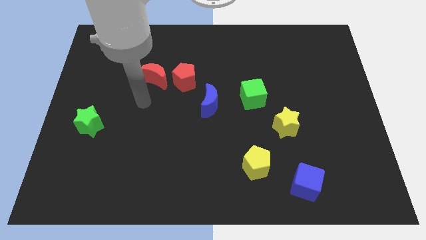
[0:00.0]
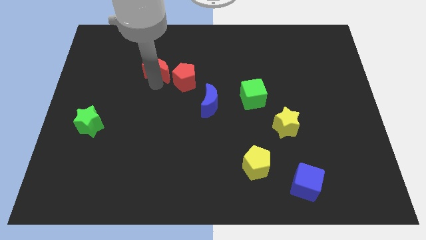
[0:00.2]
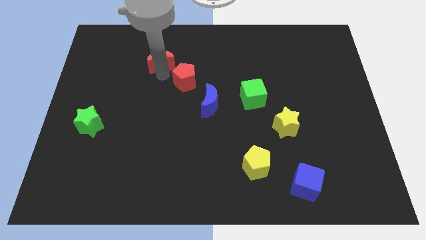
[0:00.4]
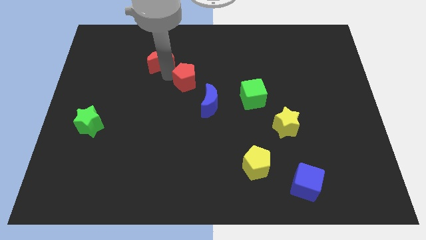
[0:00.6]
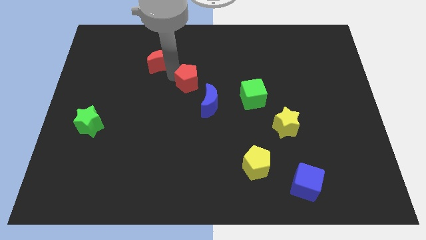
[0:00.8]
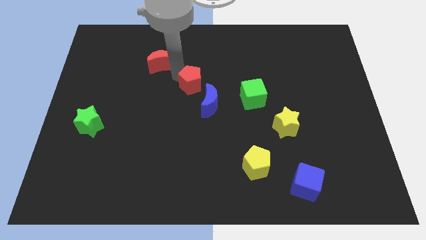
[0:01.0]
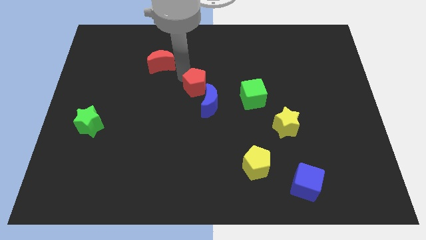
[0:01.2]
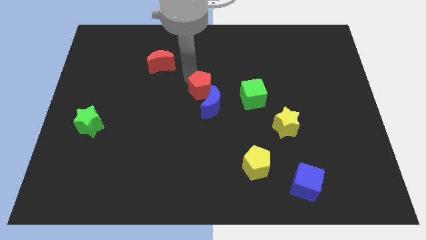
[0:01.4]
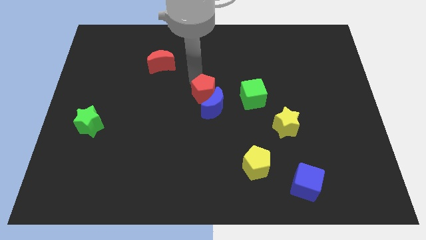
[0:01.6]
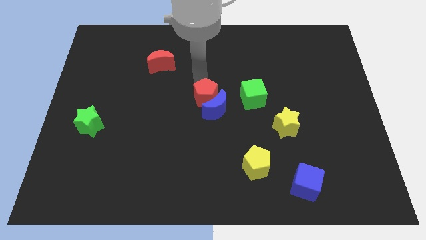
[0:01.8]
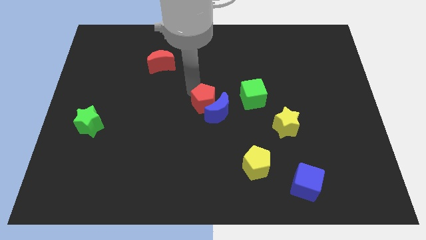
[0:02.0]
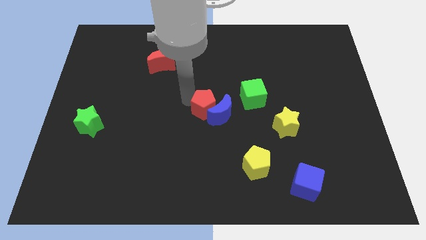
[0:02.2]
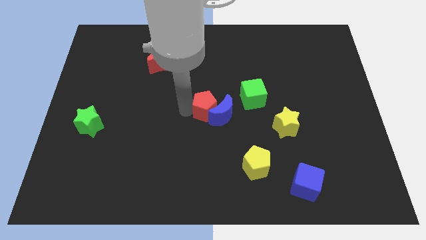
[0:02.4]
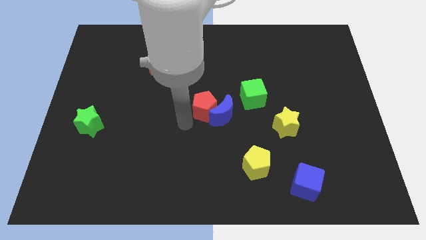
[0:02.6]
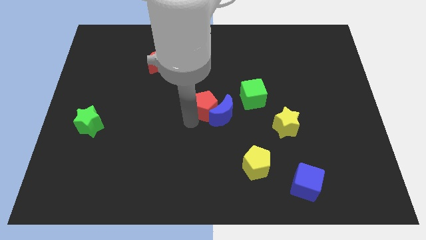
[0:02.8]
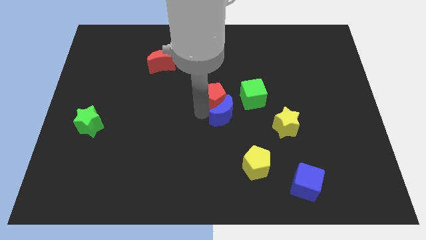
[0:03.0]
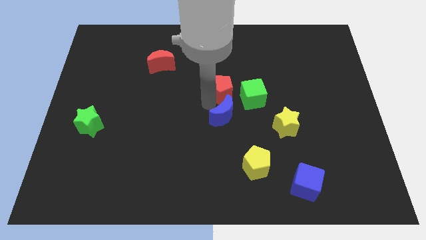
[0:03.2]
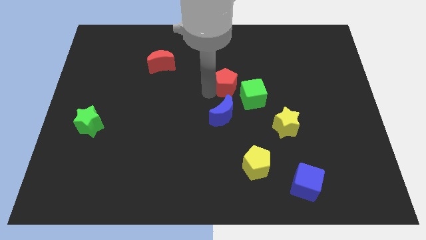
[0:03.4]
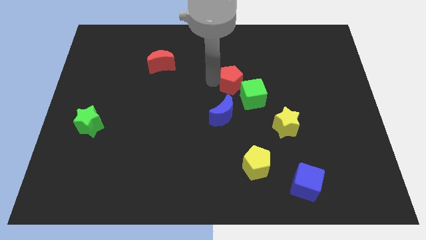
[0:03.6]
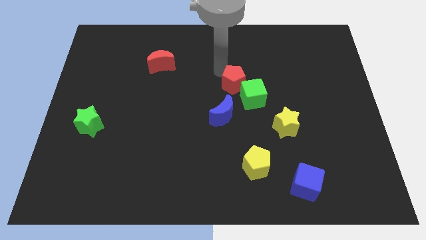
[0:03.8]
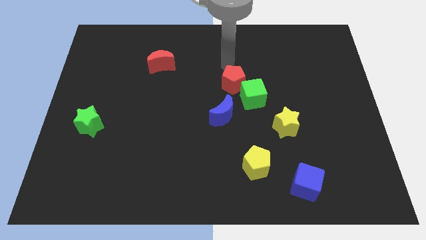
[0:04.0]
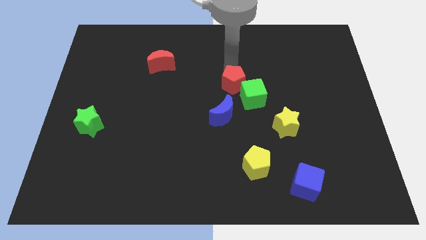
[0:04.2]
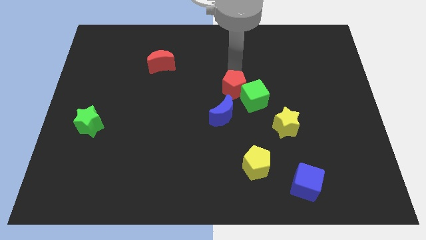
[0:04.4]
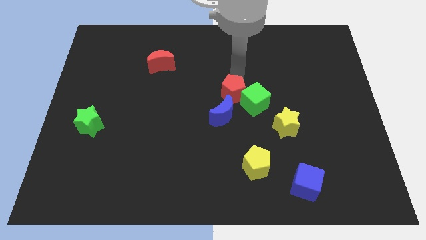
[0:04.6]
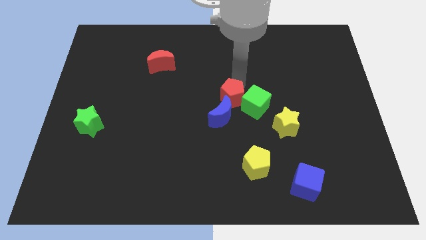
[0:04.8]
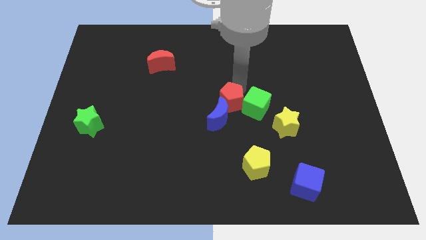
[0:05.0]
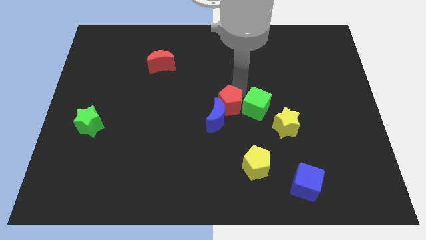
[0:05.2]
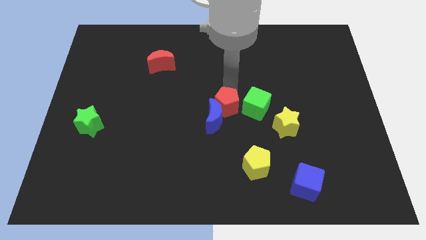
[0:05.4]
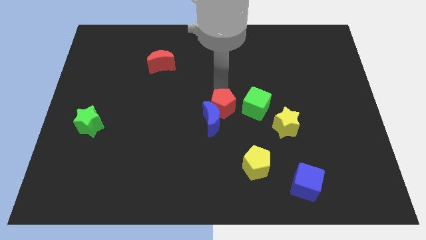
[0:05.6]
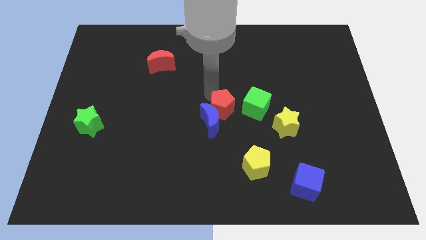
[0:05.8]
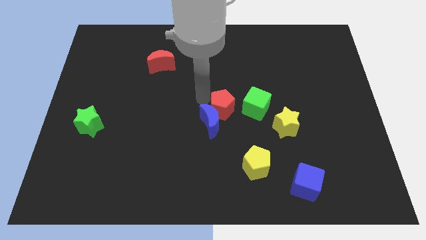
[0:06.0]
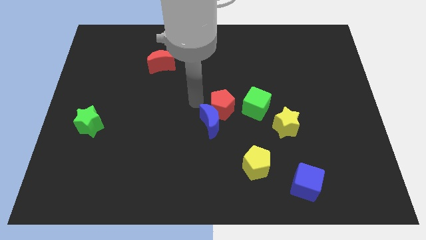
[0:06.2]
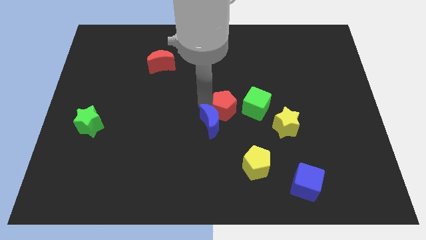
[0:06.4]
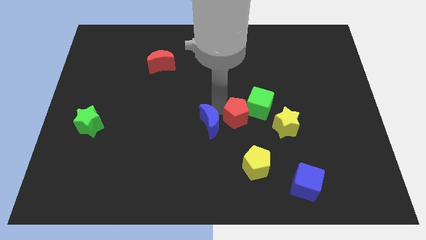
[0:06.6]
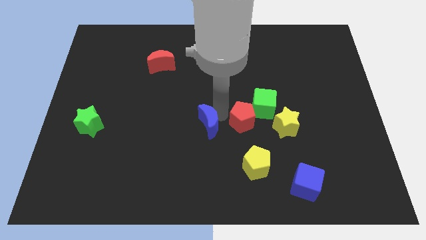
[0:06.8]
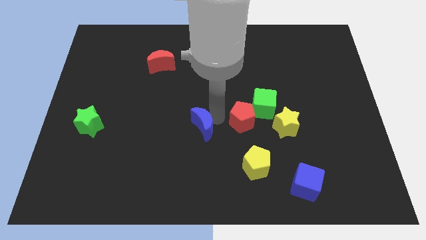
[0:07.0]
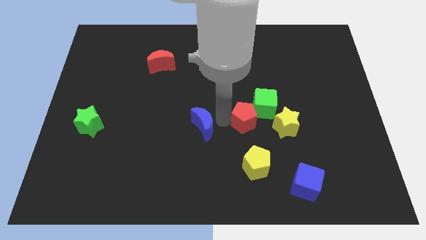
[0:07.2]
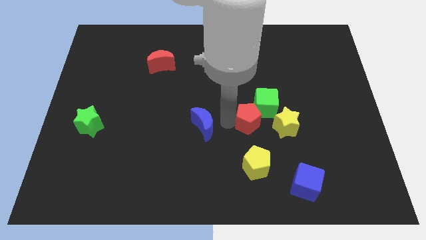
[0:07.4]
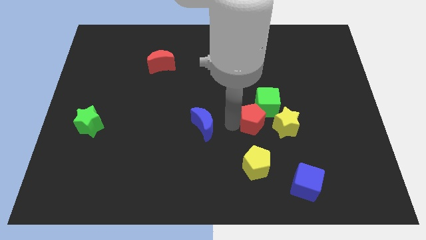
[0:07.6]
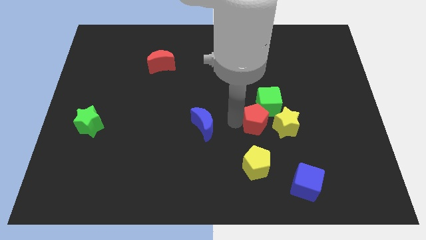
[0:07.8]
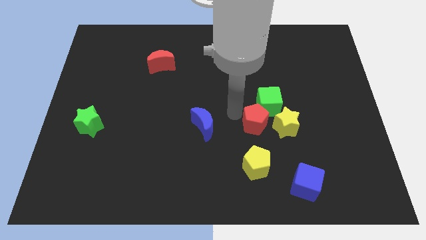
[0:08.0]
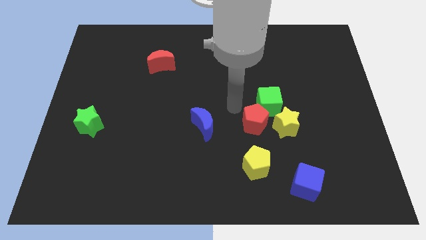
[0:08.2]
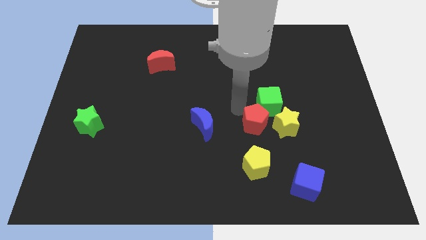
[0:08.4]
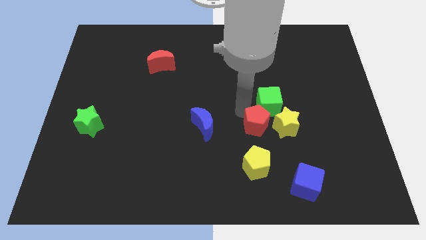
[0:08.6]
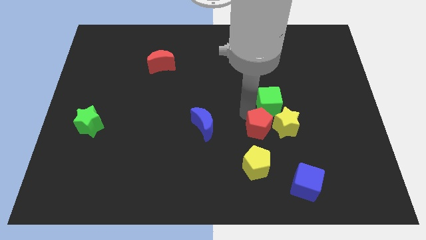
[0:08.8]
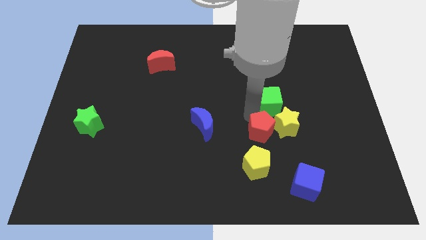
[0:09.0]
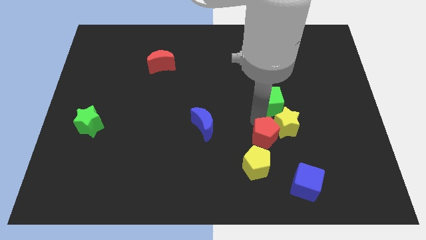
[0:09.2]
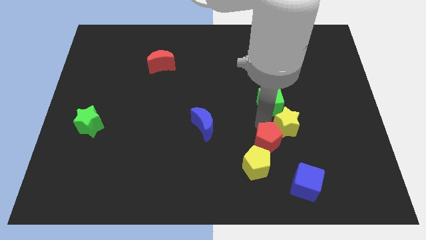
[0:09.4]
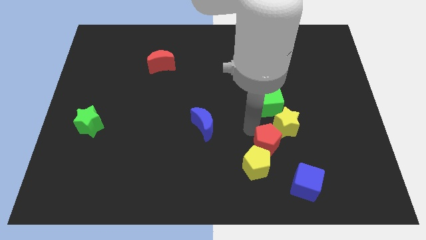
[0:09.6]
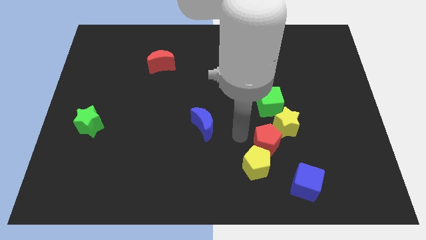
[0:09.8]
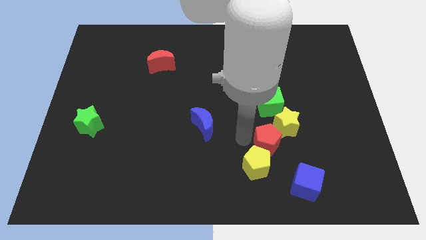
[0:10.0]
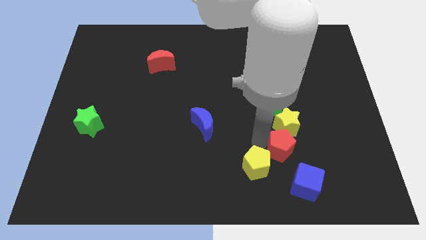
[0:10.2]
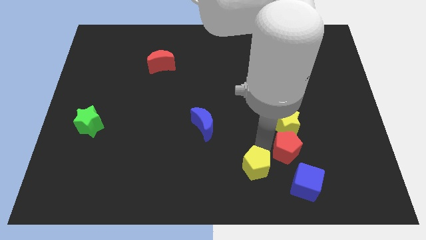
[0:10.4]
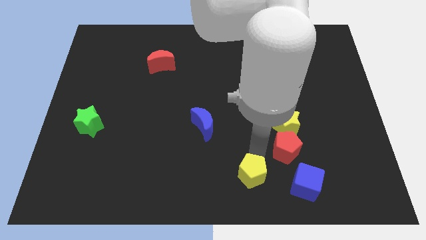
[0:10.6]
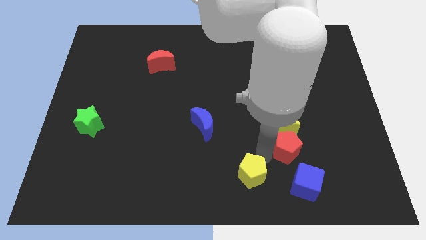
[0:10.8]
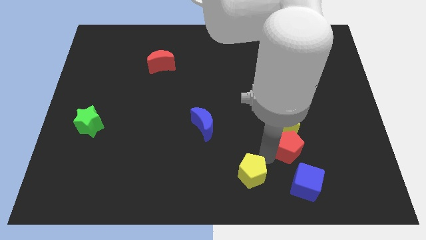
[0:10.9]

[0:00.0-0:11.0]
push the red pentagon diagonally down and to the right of the yellow star

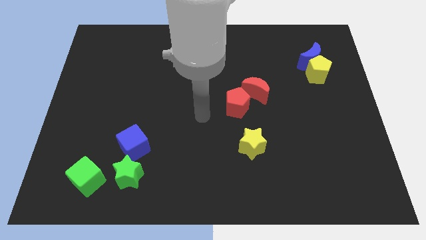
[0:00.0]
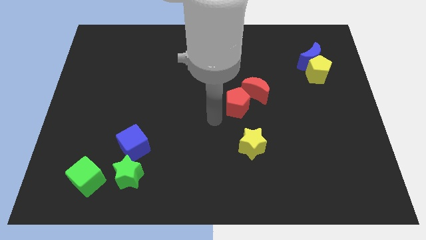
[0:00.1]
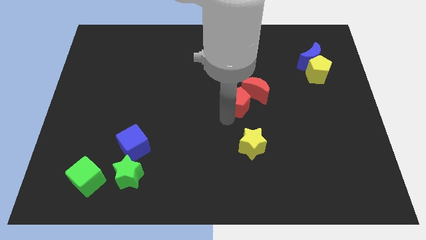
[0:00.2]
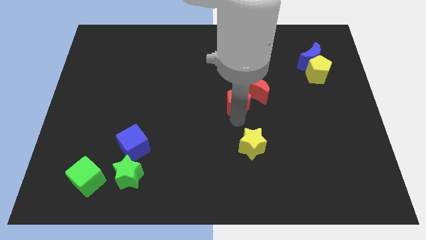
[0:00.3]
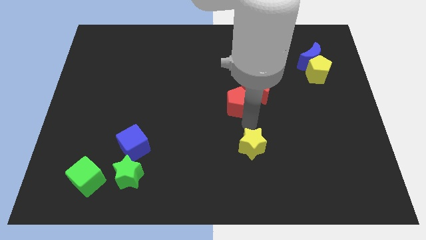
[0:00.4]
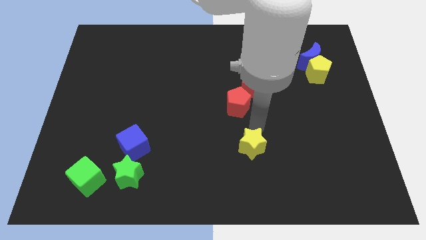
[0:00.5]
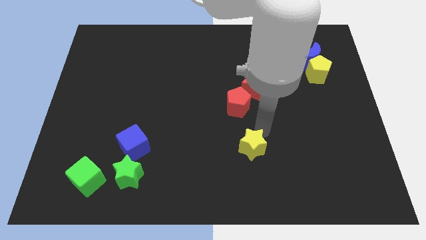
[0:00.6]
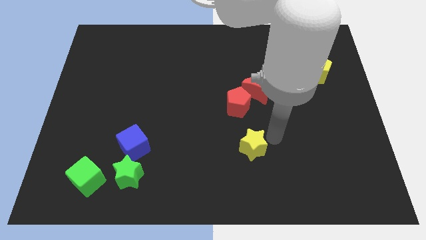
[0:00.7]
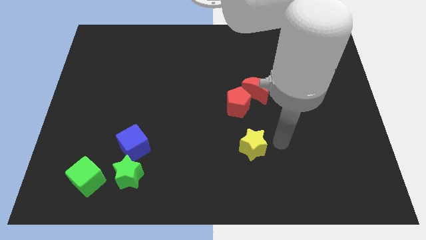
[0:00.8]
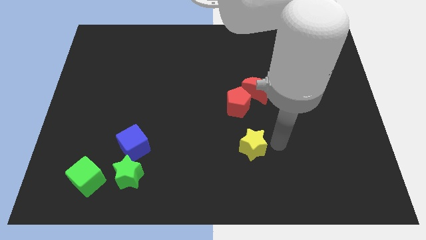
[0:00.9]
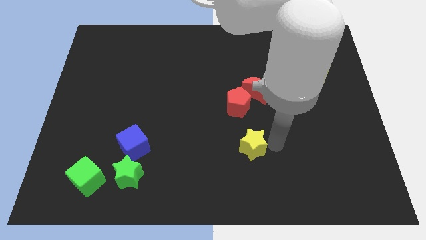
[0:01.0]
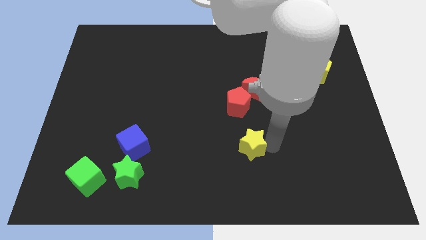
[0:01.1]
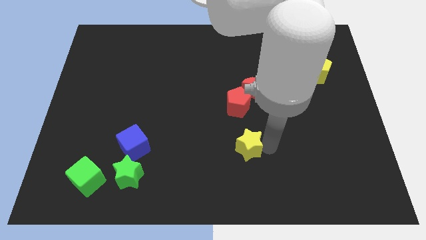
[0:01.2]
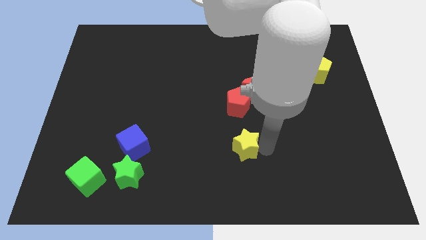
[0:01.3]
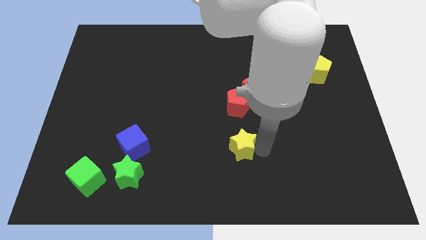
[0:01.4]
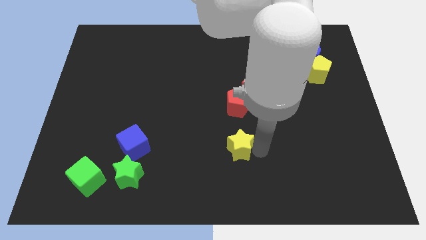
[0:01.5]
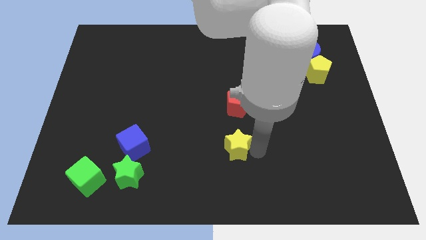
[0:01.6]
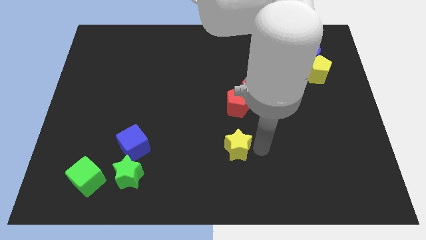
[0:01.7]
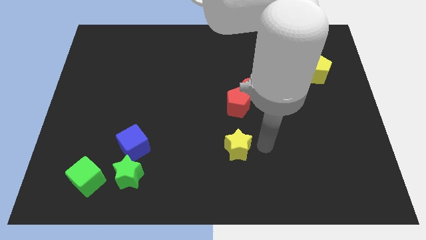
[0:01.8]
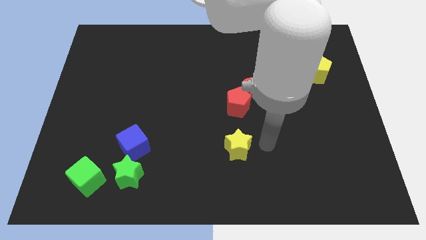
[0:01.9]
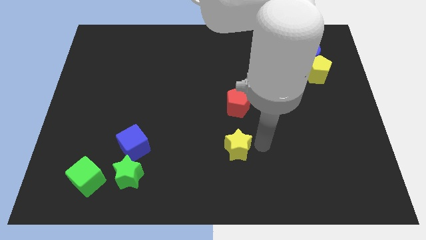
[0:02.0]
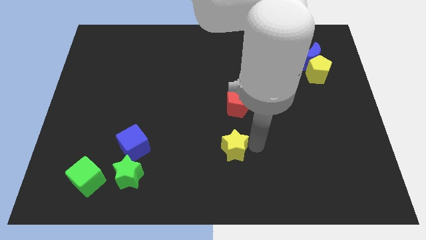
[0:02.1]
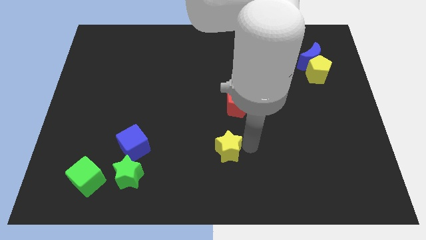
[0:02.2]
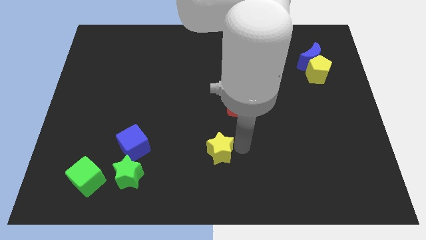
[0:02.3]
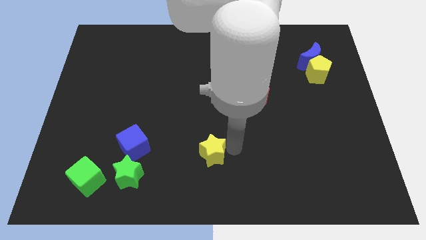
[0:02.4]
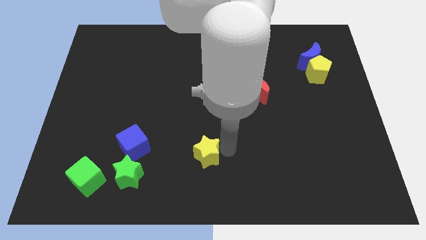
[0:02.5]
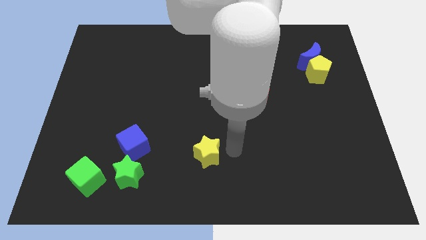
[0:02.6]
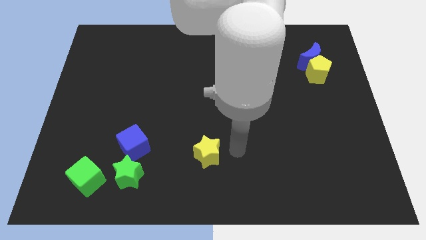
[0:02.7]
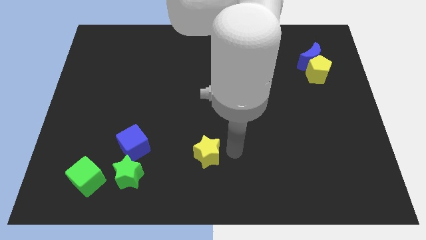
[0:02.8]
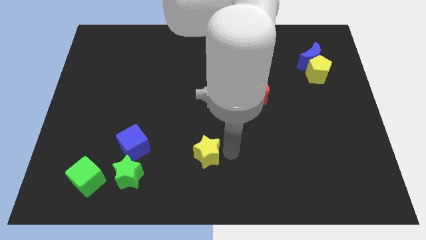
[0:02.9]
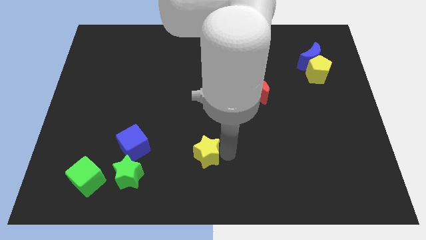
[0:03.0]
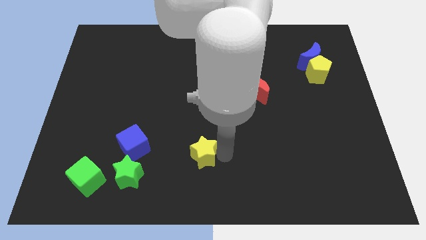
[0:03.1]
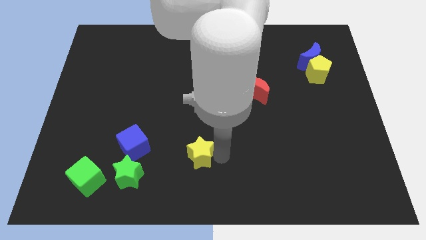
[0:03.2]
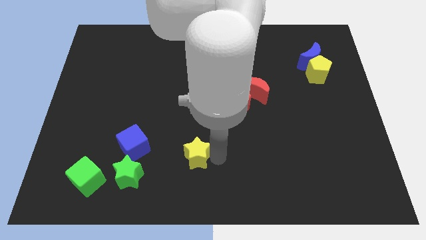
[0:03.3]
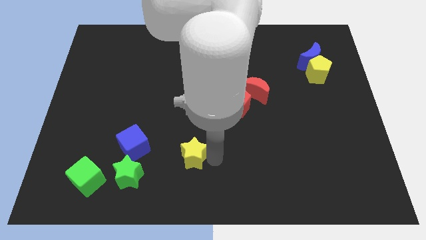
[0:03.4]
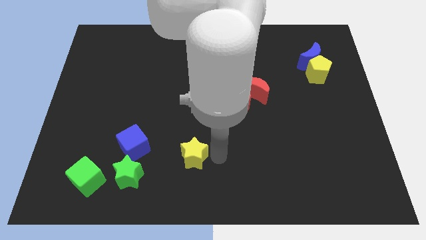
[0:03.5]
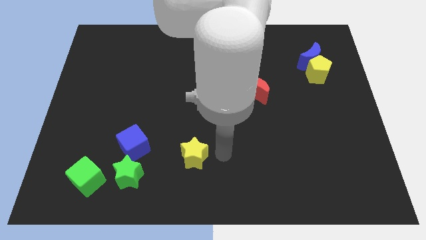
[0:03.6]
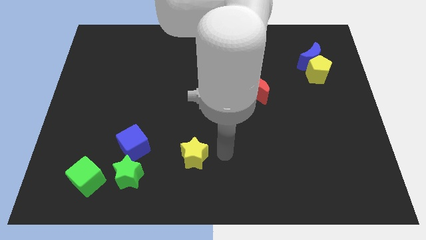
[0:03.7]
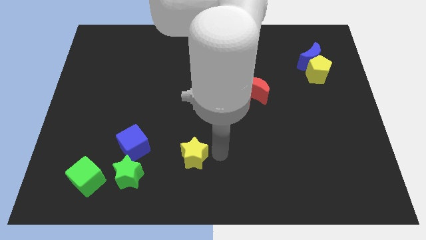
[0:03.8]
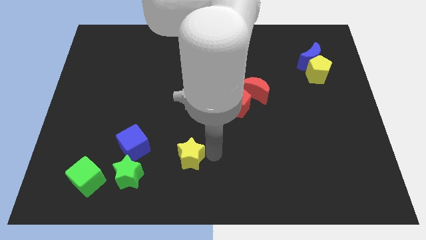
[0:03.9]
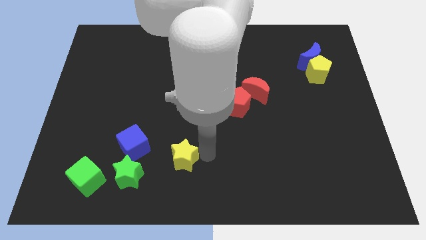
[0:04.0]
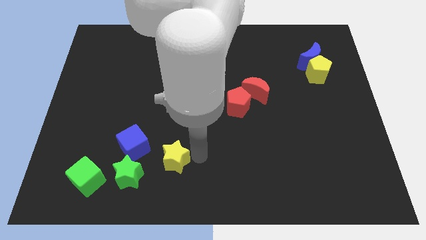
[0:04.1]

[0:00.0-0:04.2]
push the yellow star to the top right side of the green star
